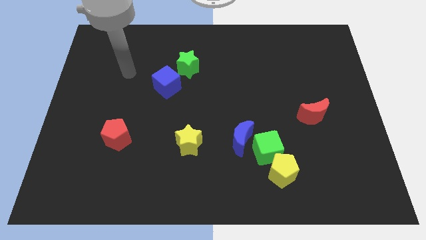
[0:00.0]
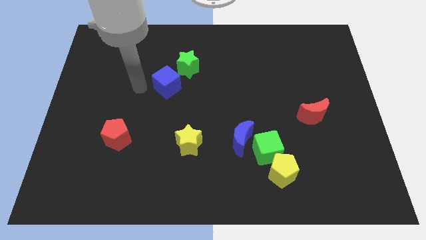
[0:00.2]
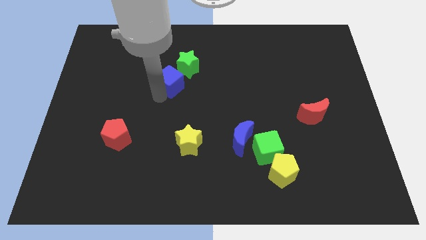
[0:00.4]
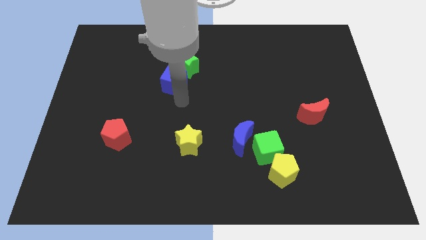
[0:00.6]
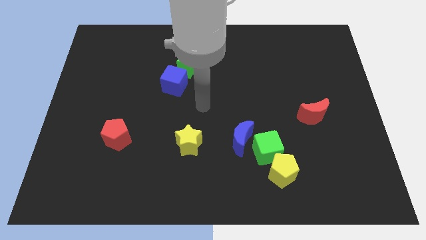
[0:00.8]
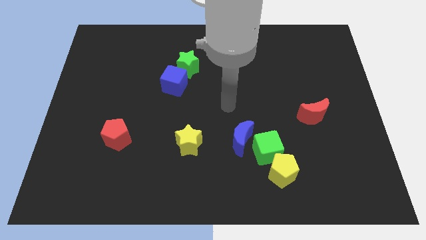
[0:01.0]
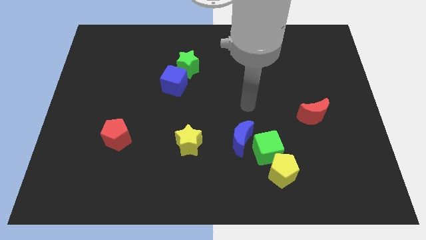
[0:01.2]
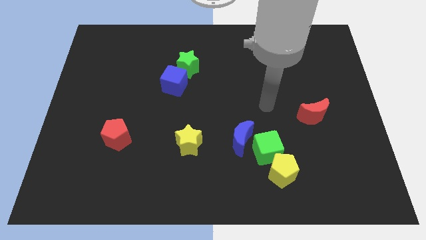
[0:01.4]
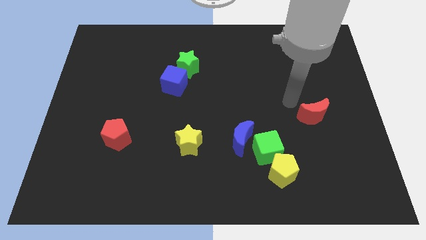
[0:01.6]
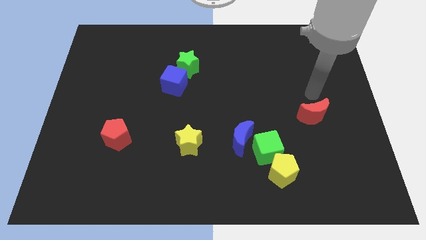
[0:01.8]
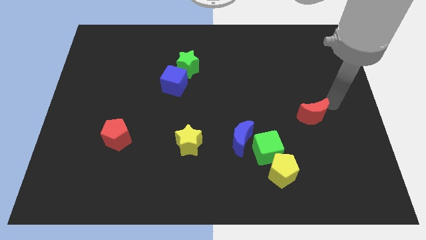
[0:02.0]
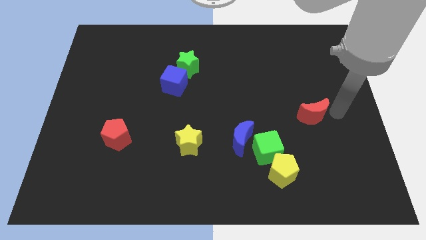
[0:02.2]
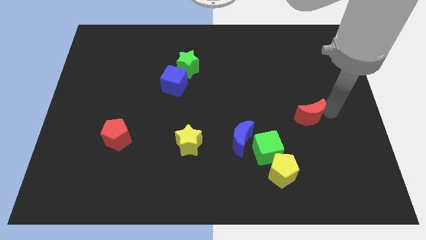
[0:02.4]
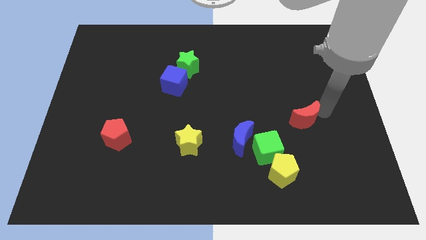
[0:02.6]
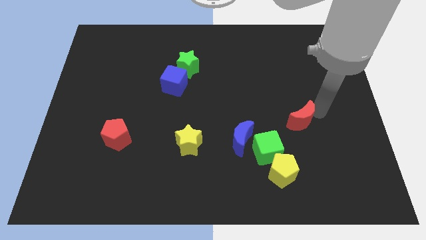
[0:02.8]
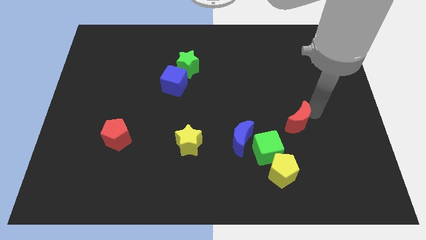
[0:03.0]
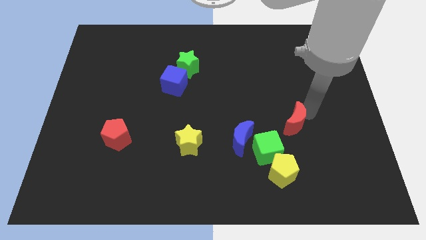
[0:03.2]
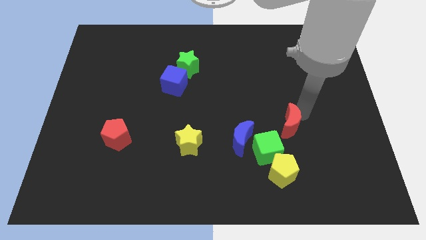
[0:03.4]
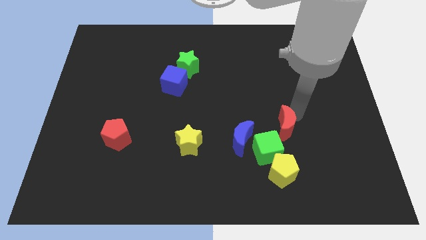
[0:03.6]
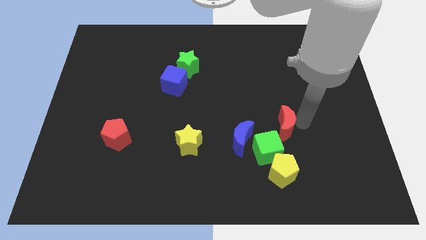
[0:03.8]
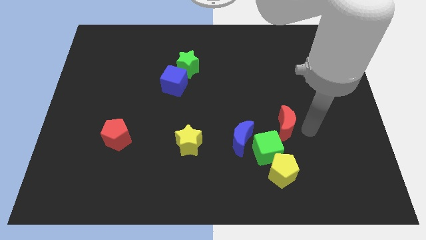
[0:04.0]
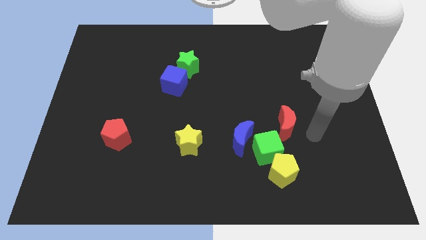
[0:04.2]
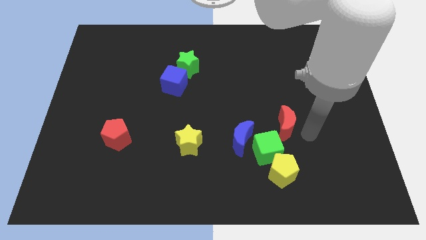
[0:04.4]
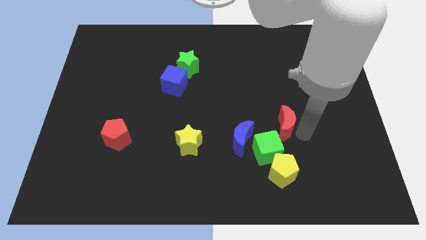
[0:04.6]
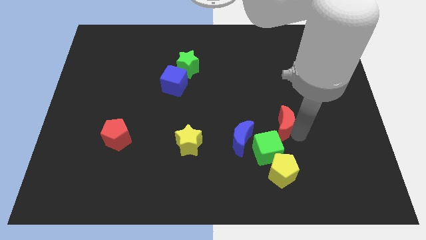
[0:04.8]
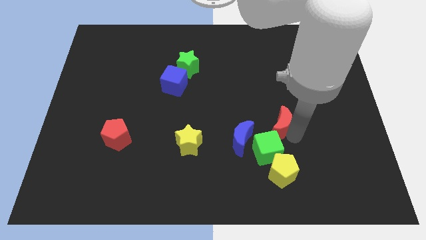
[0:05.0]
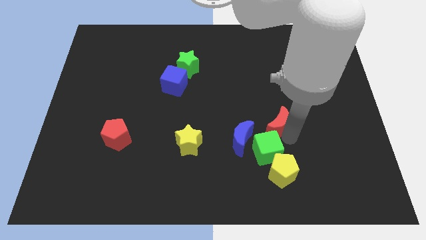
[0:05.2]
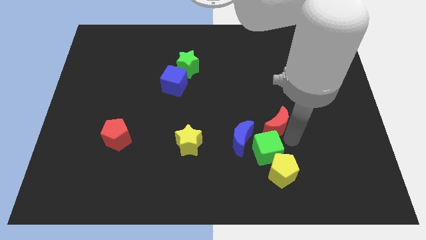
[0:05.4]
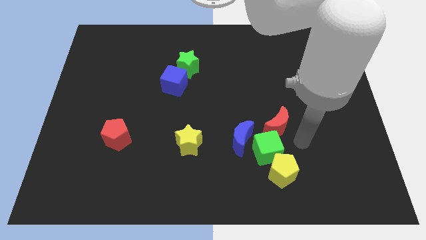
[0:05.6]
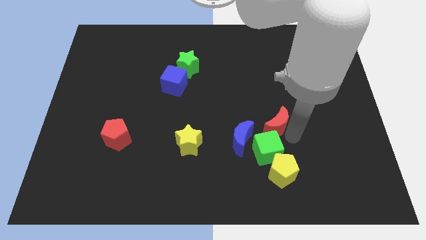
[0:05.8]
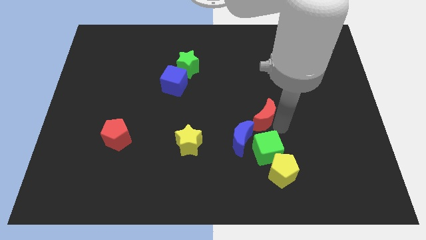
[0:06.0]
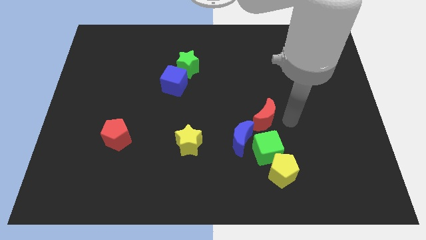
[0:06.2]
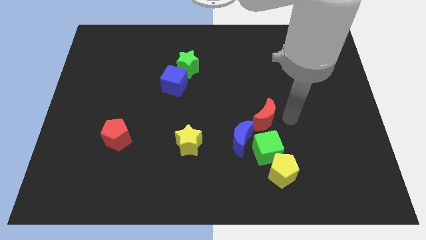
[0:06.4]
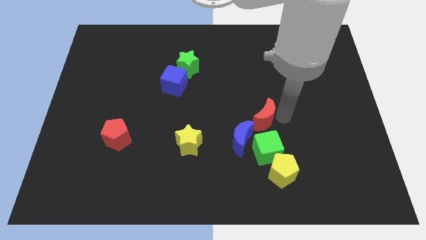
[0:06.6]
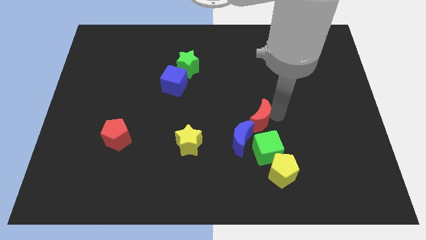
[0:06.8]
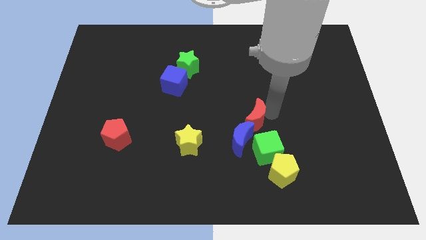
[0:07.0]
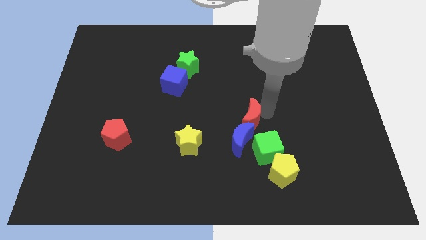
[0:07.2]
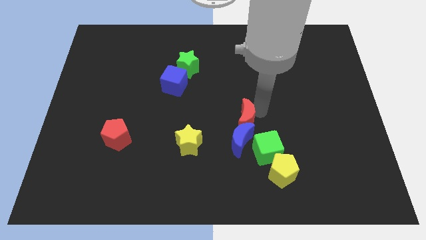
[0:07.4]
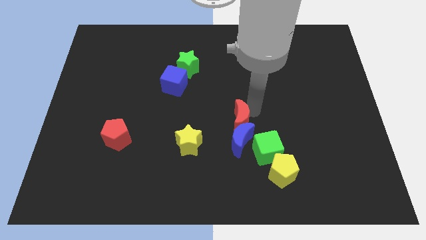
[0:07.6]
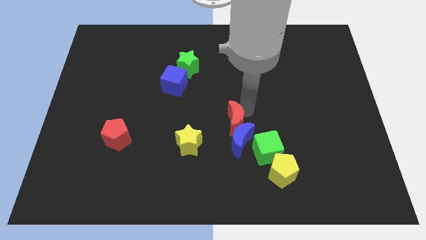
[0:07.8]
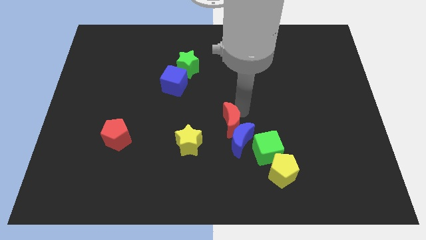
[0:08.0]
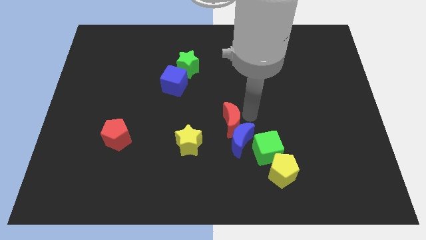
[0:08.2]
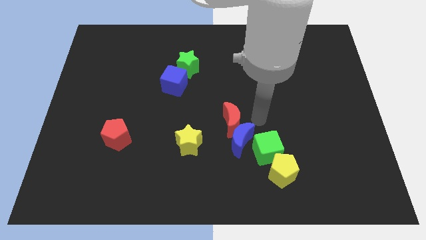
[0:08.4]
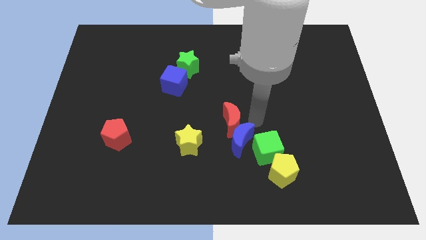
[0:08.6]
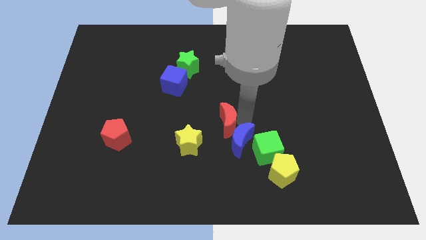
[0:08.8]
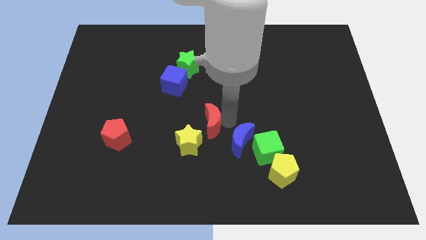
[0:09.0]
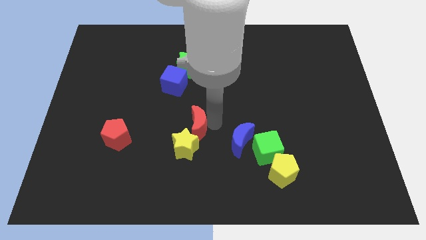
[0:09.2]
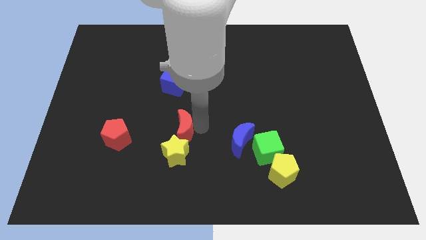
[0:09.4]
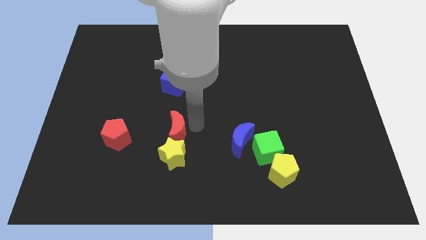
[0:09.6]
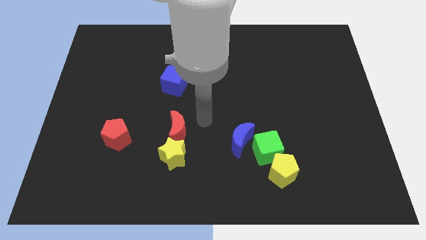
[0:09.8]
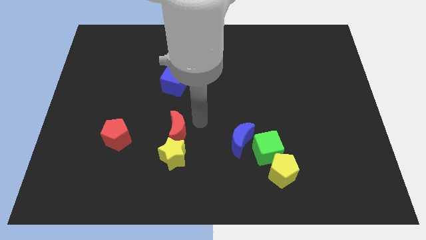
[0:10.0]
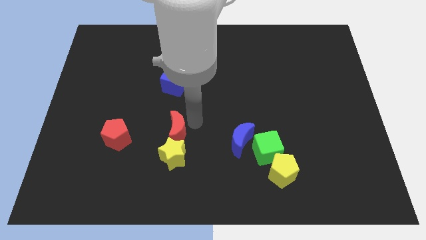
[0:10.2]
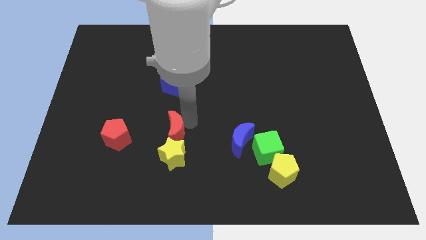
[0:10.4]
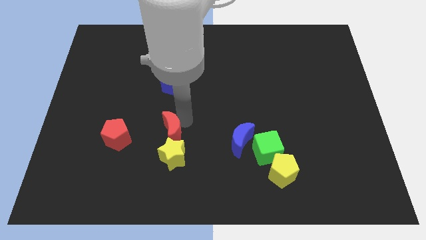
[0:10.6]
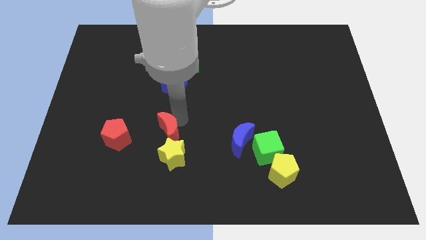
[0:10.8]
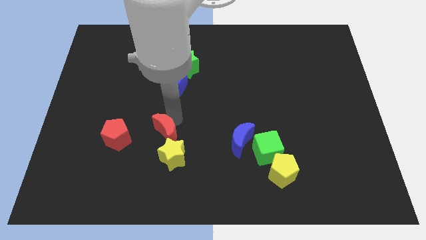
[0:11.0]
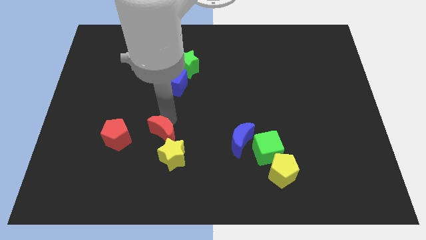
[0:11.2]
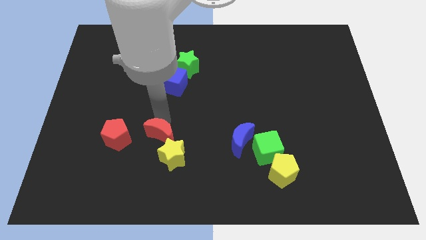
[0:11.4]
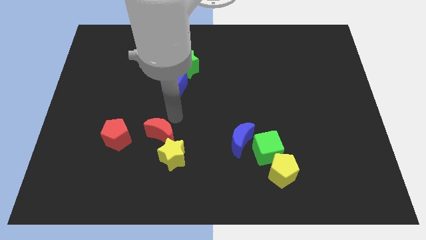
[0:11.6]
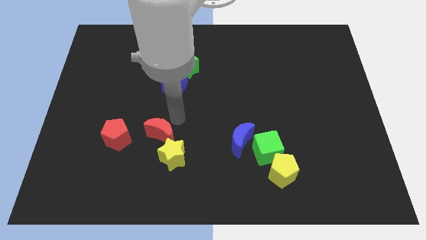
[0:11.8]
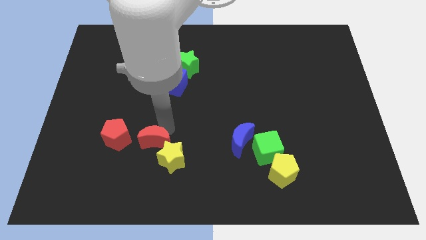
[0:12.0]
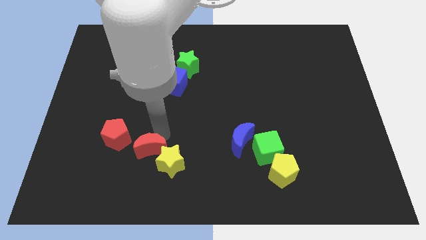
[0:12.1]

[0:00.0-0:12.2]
slide the red moon diagonally down and to the right of the red pentagon
